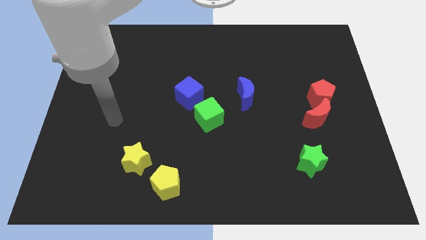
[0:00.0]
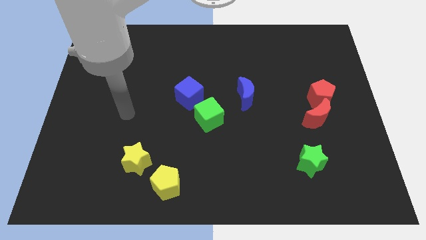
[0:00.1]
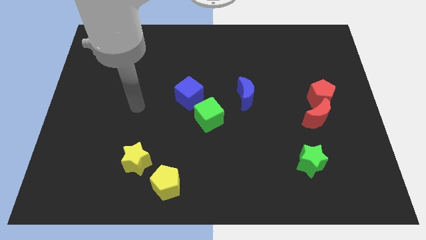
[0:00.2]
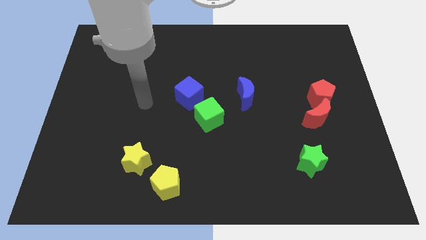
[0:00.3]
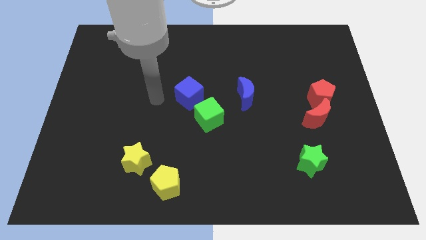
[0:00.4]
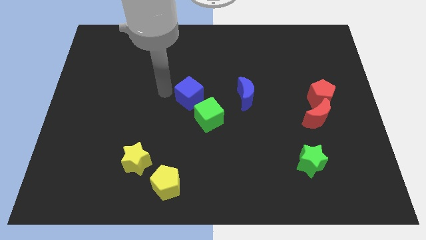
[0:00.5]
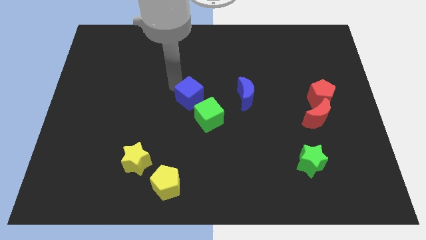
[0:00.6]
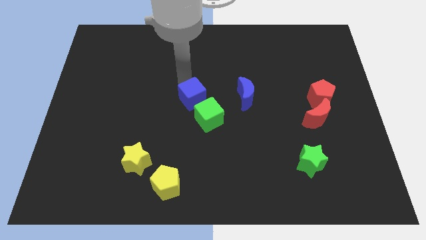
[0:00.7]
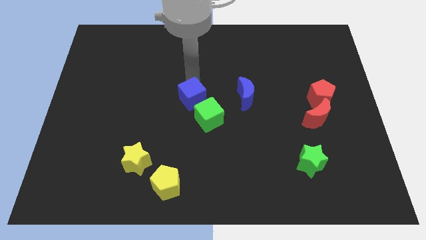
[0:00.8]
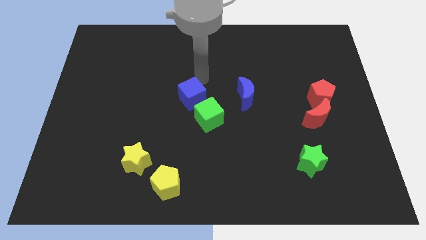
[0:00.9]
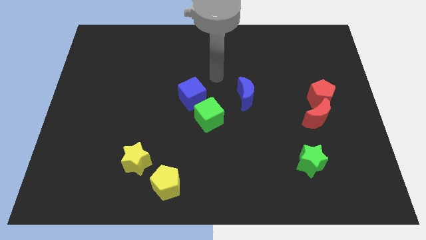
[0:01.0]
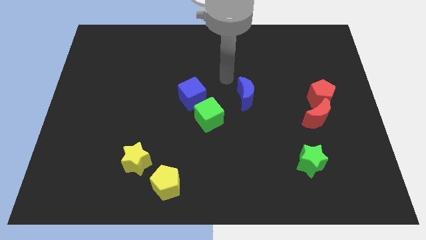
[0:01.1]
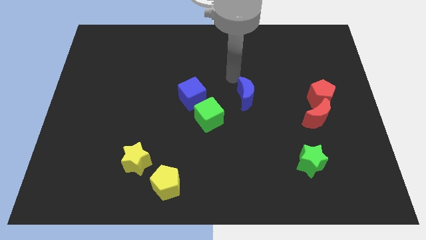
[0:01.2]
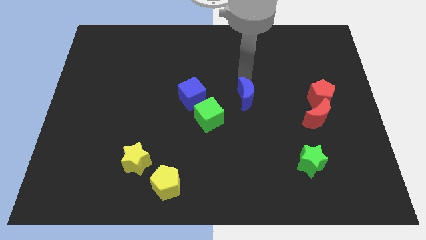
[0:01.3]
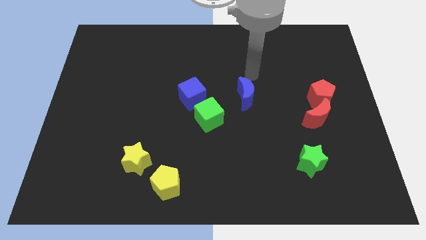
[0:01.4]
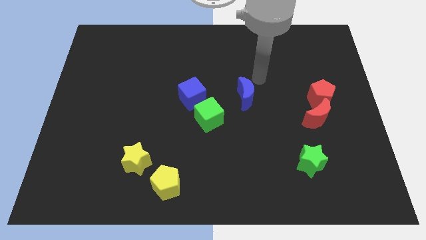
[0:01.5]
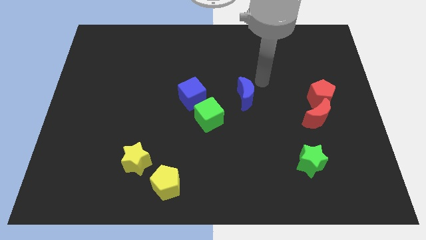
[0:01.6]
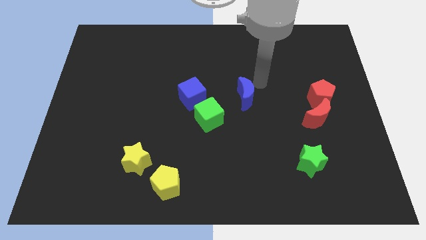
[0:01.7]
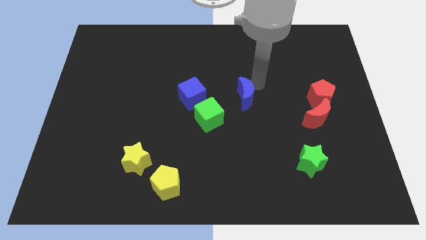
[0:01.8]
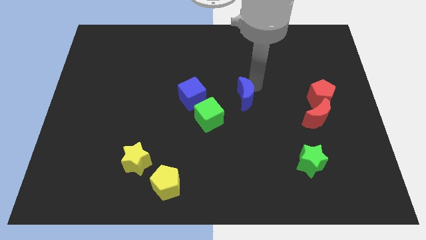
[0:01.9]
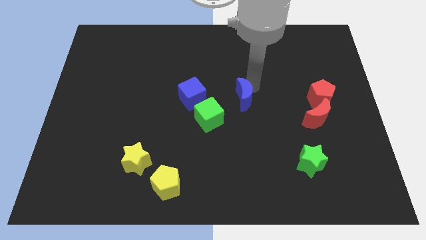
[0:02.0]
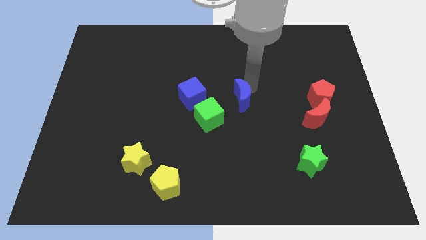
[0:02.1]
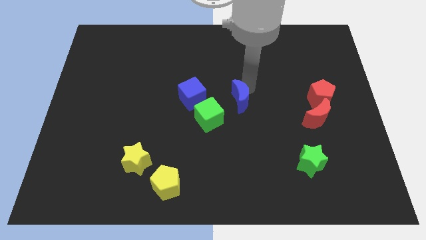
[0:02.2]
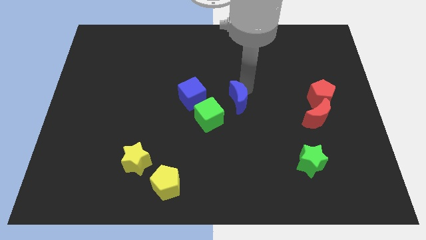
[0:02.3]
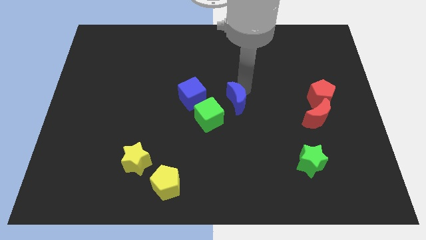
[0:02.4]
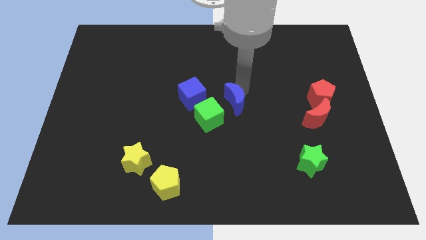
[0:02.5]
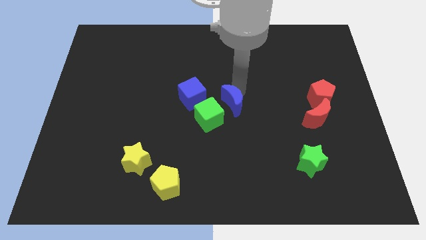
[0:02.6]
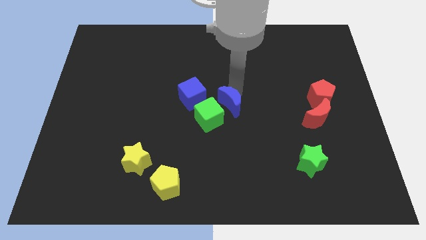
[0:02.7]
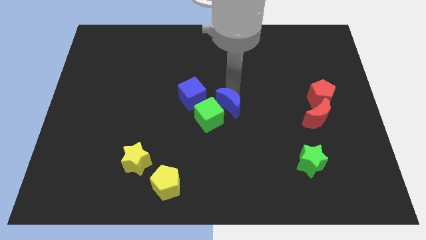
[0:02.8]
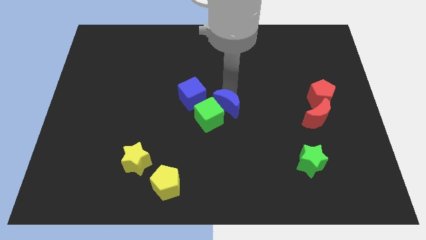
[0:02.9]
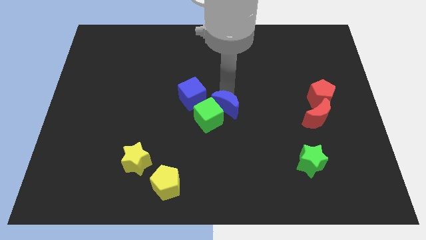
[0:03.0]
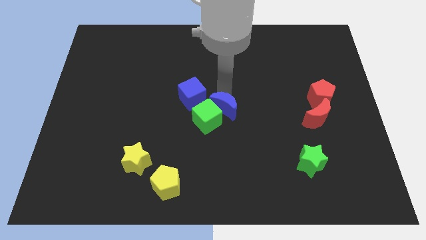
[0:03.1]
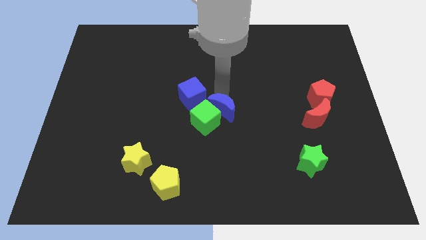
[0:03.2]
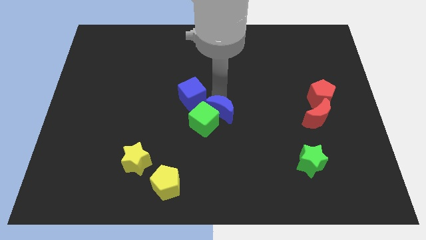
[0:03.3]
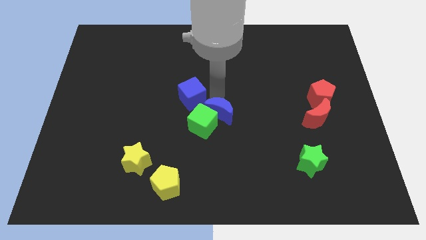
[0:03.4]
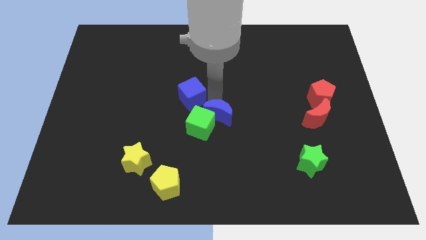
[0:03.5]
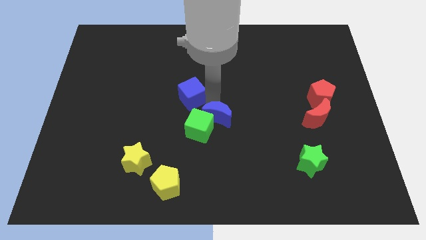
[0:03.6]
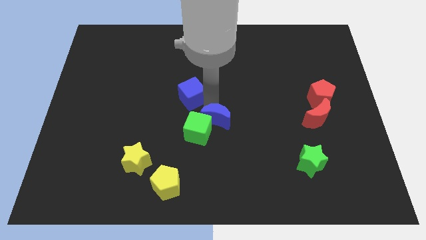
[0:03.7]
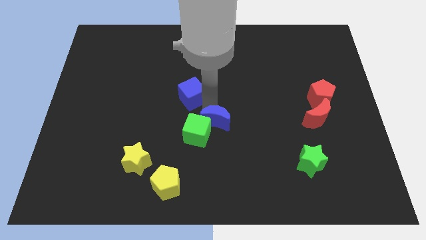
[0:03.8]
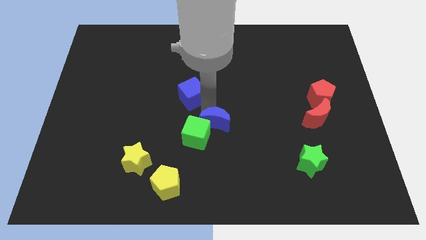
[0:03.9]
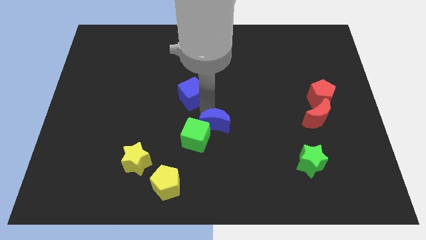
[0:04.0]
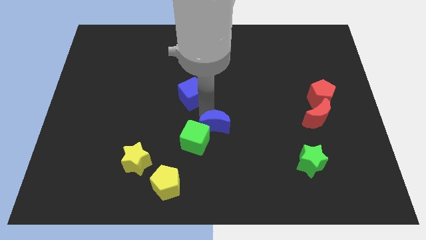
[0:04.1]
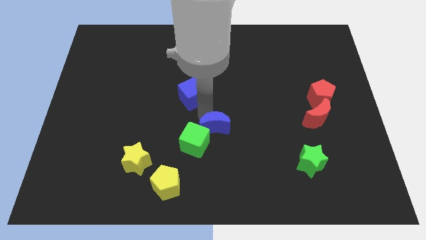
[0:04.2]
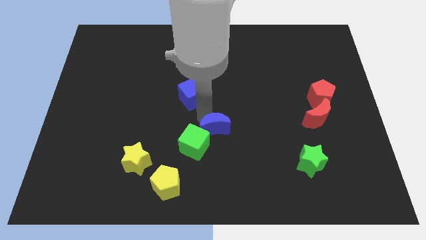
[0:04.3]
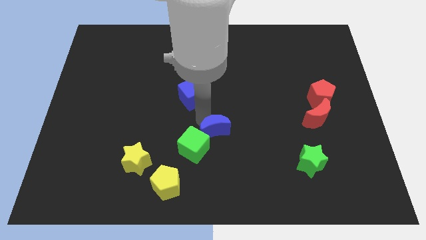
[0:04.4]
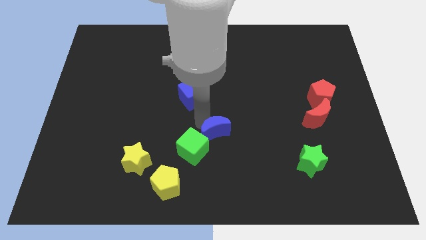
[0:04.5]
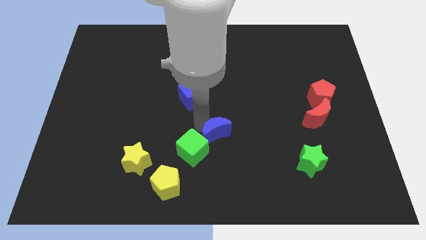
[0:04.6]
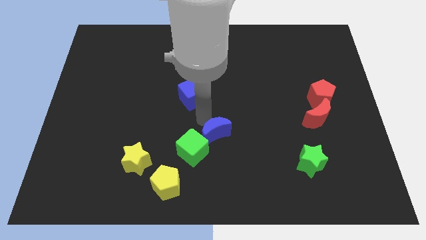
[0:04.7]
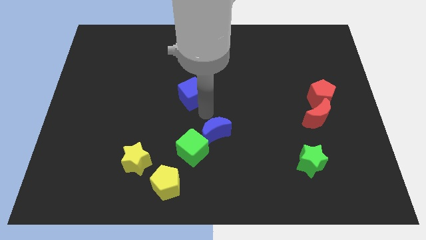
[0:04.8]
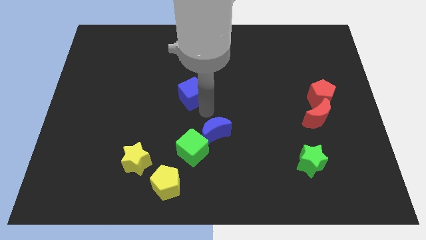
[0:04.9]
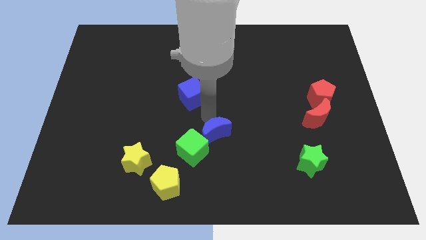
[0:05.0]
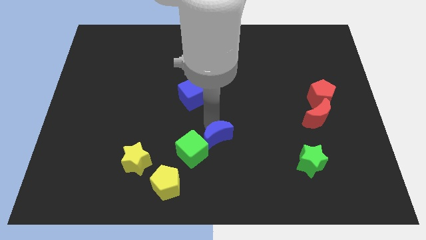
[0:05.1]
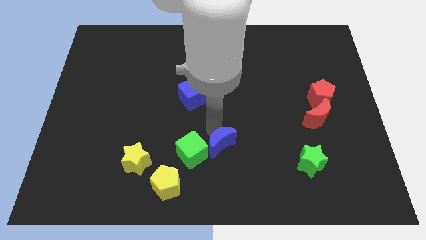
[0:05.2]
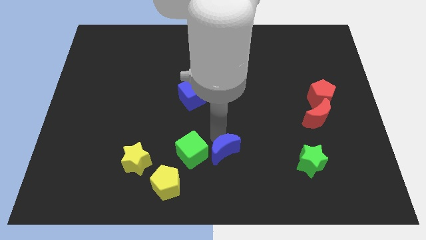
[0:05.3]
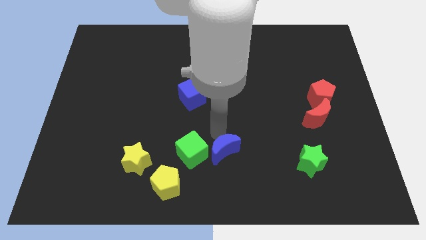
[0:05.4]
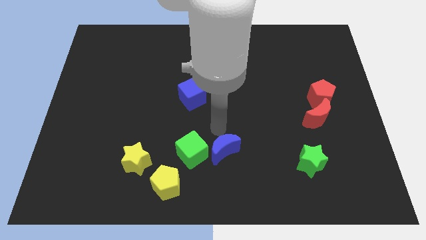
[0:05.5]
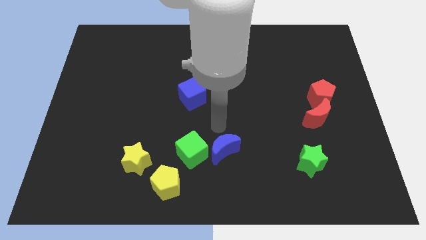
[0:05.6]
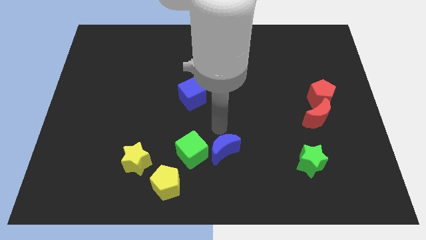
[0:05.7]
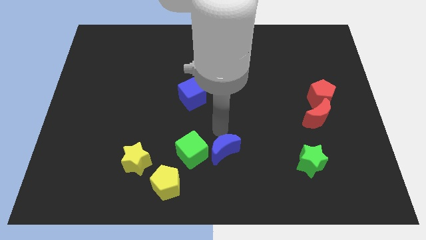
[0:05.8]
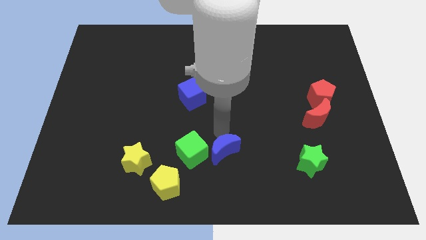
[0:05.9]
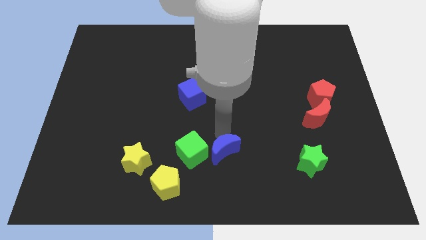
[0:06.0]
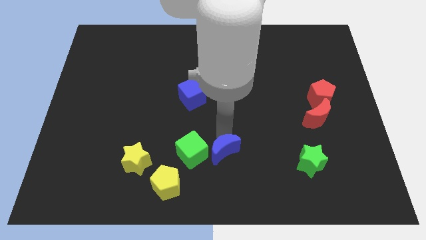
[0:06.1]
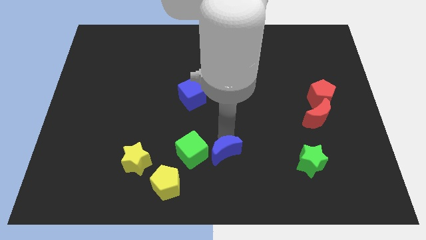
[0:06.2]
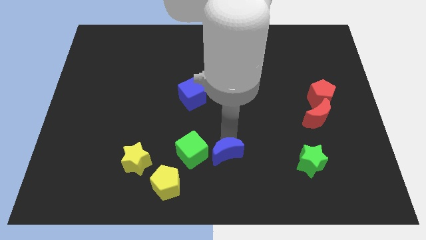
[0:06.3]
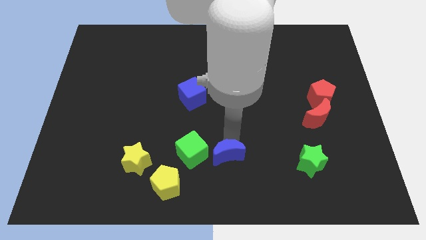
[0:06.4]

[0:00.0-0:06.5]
slide the blue moon to the bottom side
